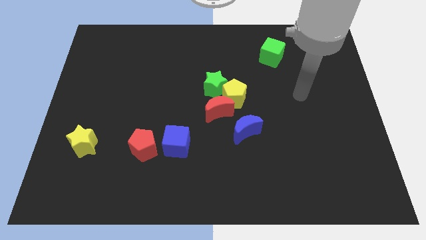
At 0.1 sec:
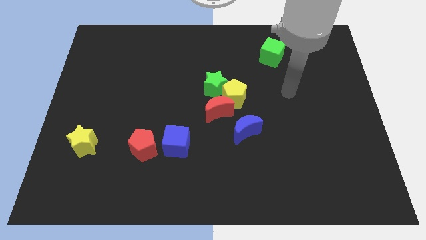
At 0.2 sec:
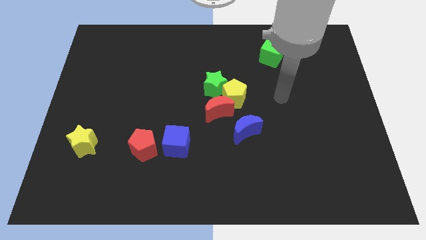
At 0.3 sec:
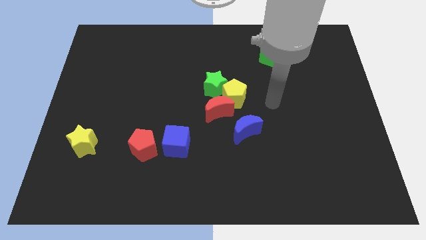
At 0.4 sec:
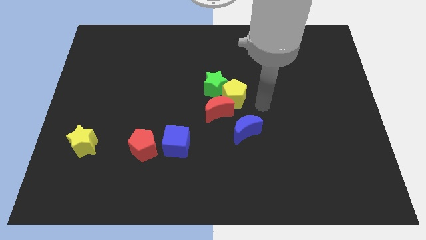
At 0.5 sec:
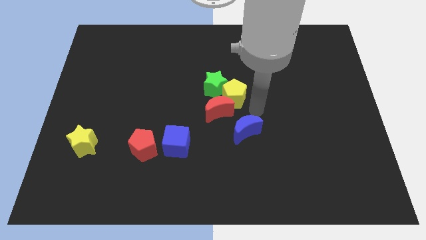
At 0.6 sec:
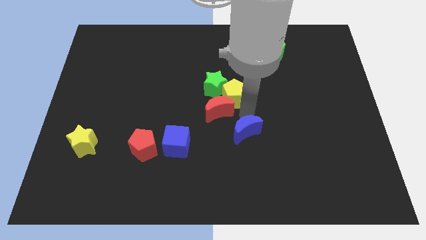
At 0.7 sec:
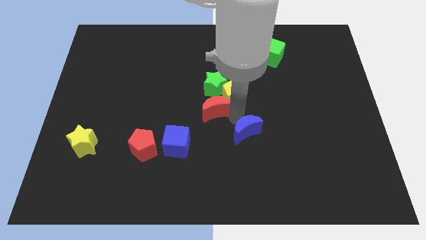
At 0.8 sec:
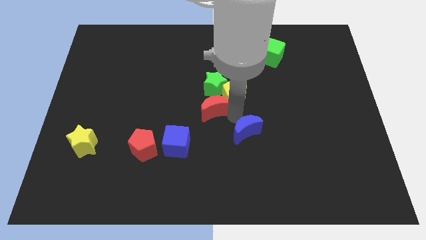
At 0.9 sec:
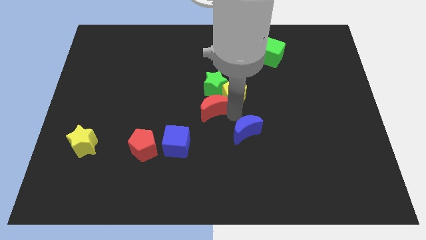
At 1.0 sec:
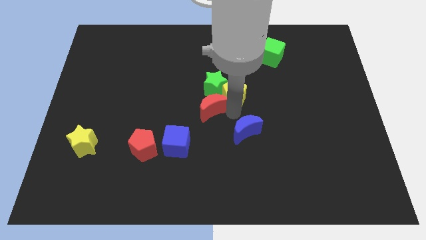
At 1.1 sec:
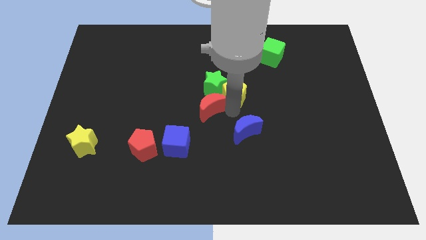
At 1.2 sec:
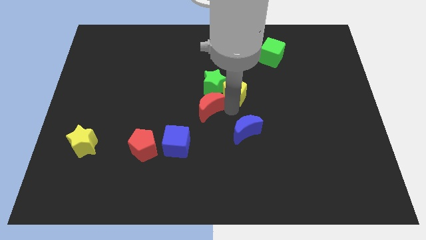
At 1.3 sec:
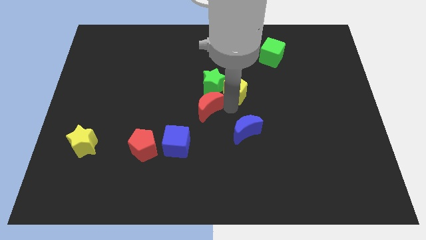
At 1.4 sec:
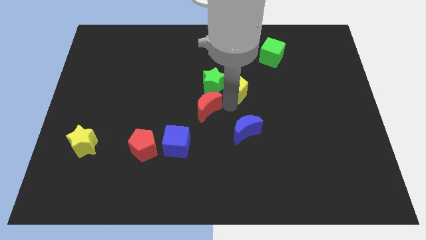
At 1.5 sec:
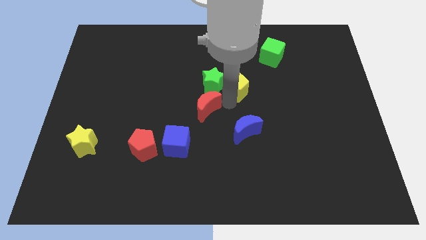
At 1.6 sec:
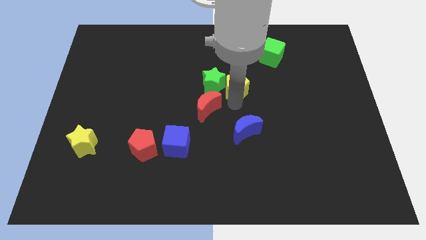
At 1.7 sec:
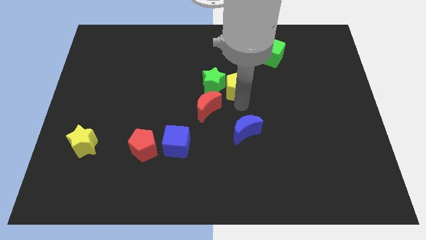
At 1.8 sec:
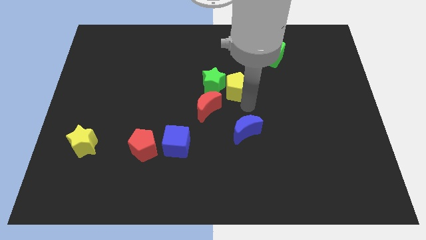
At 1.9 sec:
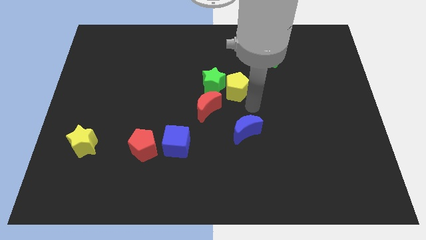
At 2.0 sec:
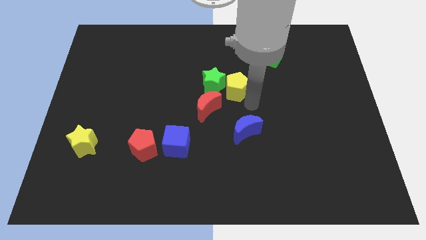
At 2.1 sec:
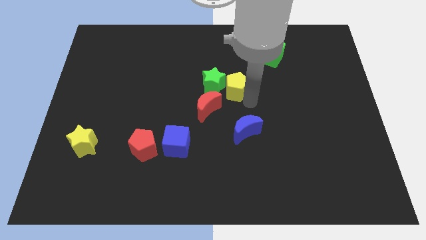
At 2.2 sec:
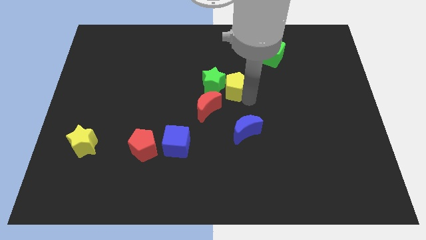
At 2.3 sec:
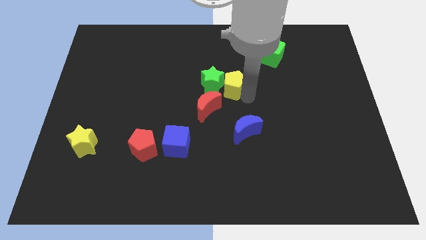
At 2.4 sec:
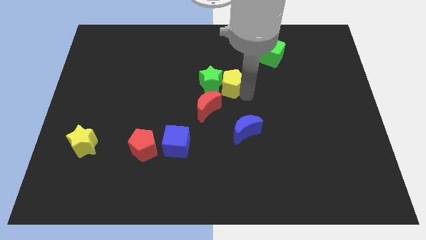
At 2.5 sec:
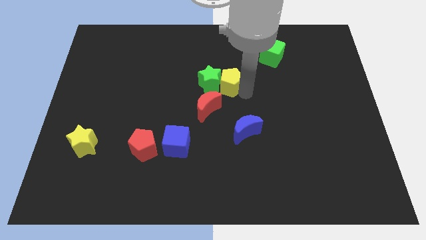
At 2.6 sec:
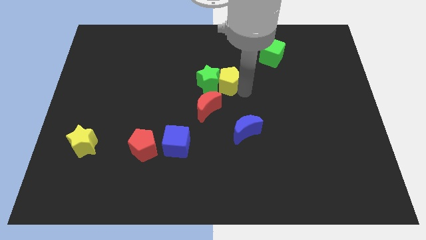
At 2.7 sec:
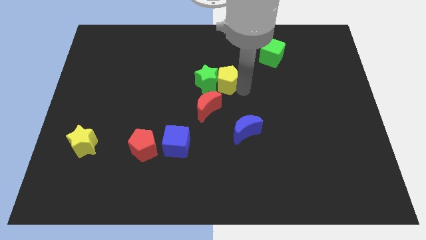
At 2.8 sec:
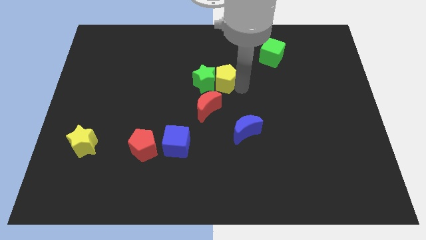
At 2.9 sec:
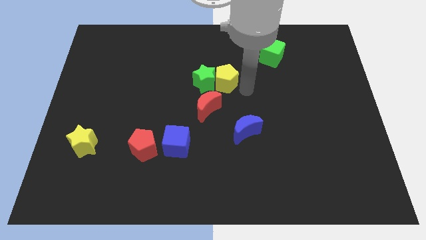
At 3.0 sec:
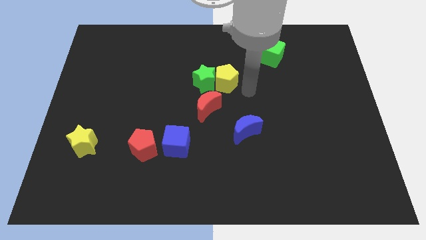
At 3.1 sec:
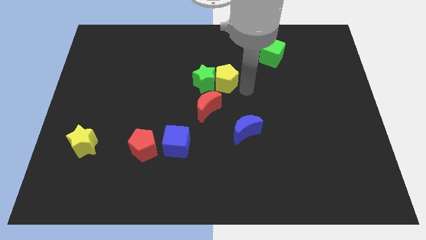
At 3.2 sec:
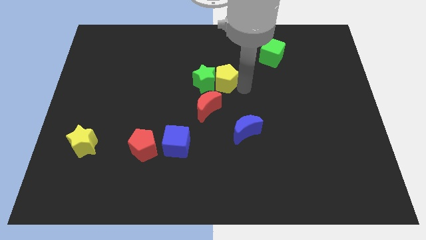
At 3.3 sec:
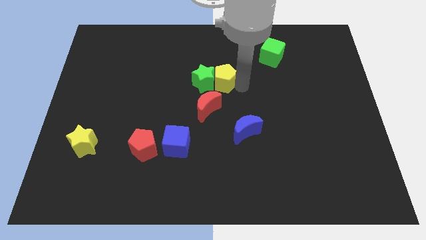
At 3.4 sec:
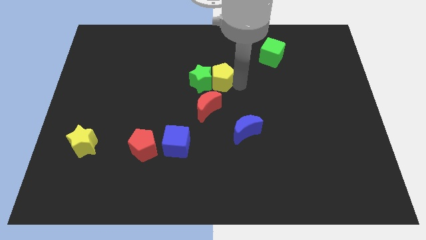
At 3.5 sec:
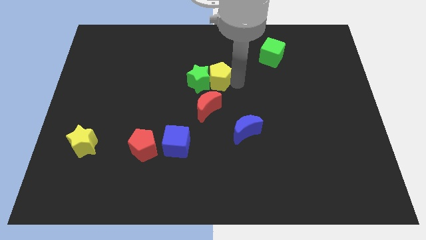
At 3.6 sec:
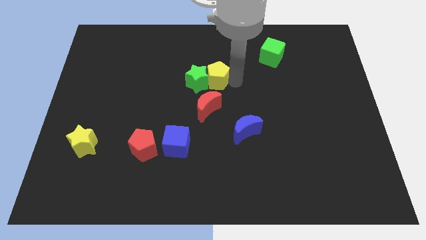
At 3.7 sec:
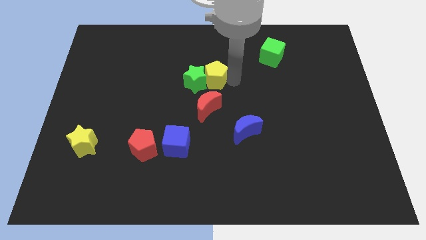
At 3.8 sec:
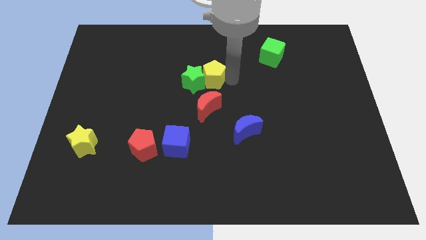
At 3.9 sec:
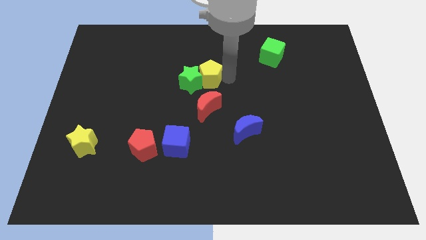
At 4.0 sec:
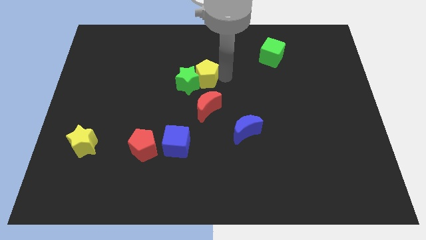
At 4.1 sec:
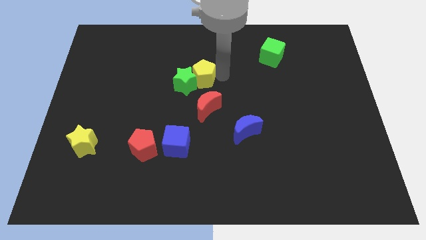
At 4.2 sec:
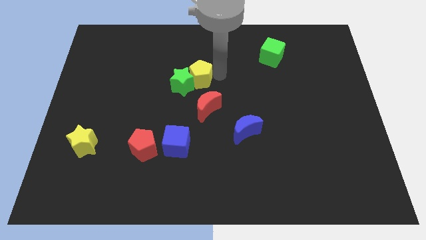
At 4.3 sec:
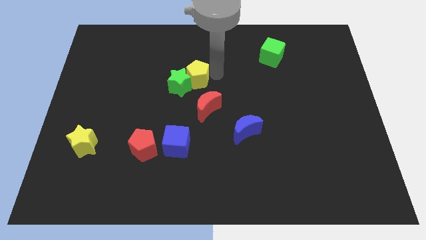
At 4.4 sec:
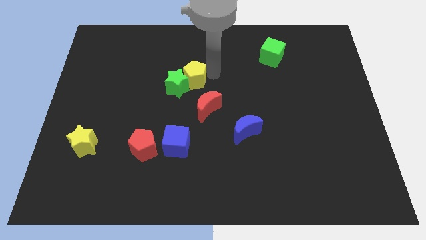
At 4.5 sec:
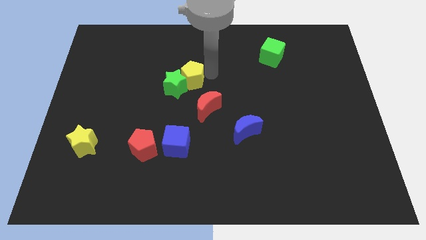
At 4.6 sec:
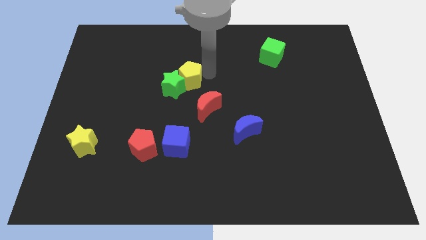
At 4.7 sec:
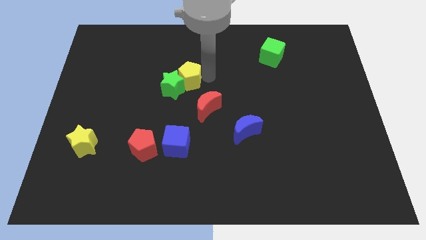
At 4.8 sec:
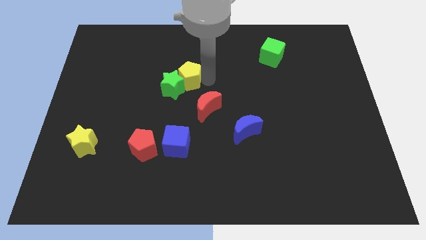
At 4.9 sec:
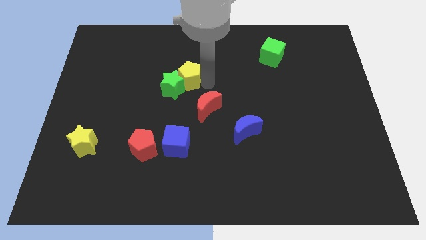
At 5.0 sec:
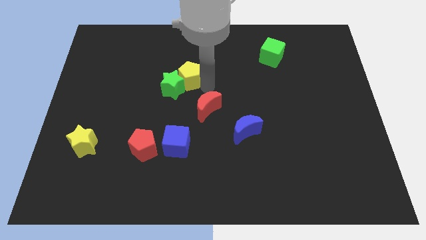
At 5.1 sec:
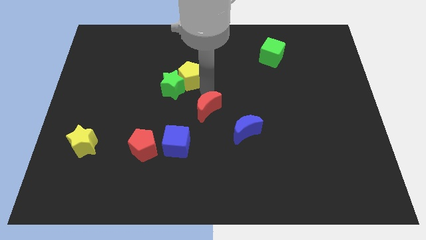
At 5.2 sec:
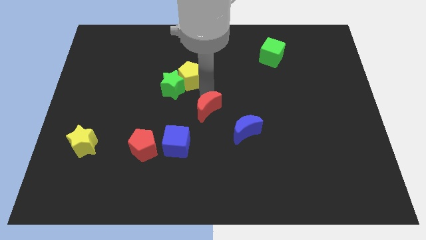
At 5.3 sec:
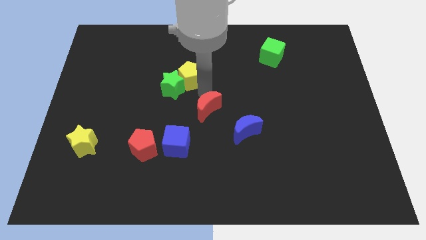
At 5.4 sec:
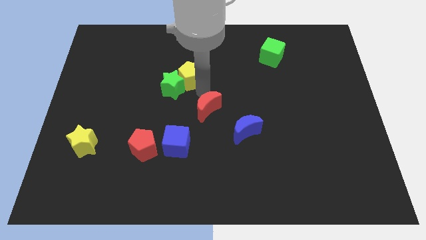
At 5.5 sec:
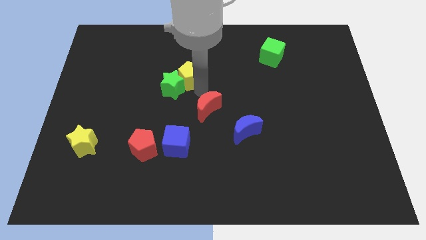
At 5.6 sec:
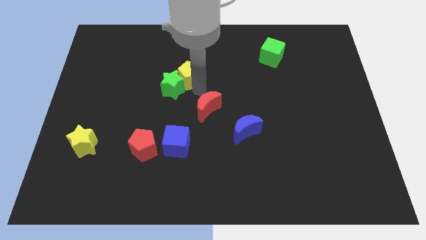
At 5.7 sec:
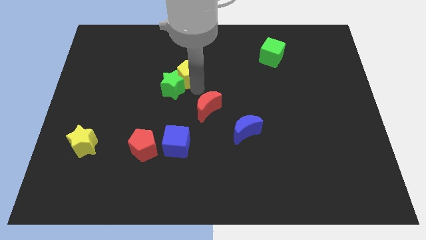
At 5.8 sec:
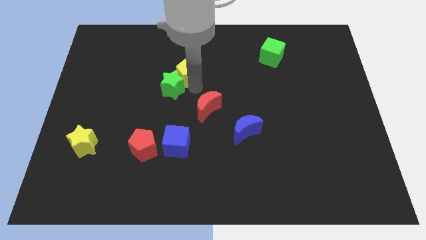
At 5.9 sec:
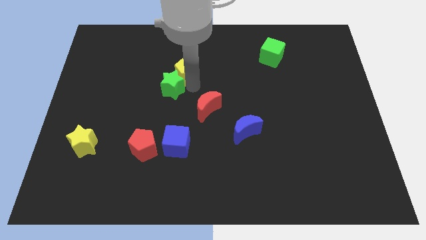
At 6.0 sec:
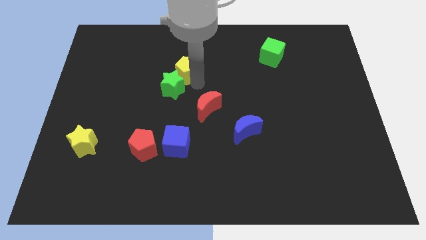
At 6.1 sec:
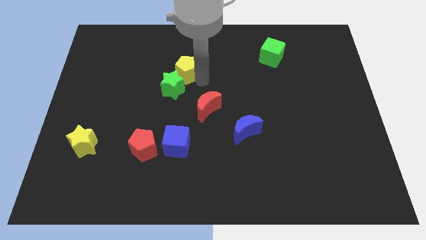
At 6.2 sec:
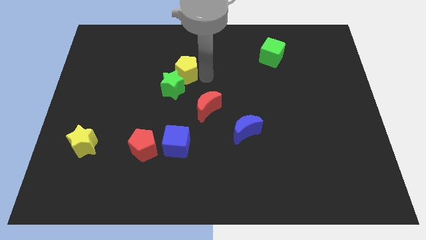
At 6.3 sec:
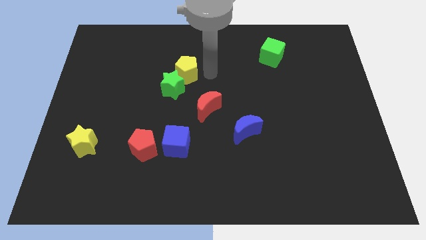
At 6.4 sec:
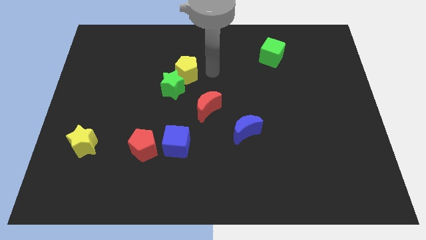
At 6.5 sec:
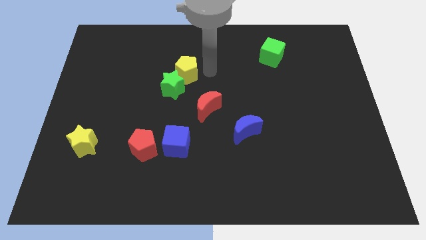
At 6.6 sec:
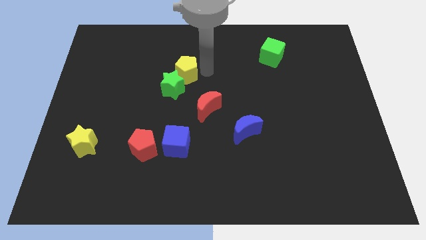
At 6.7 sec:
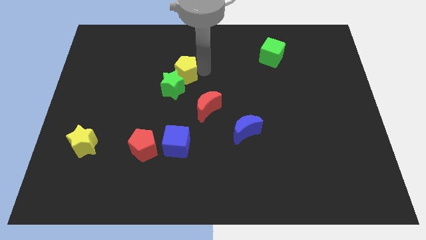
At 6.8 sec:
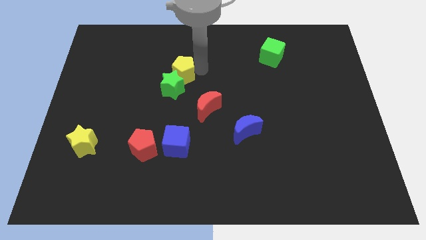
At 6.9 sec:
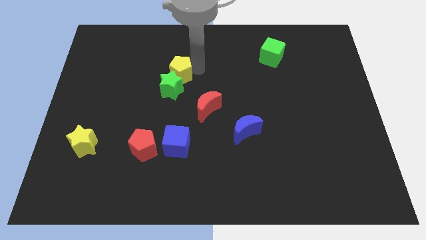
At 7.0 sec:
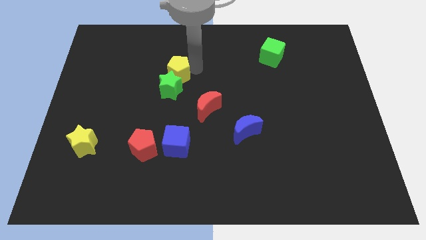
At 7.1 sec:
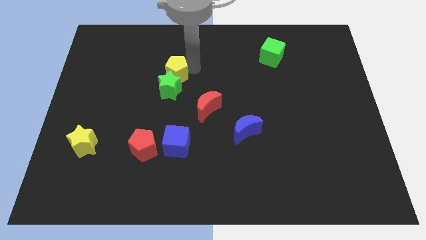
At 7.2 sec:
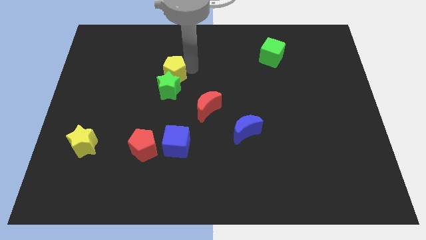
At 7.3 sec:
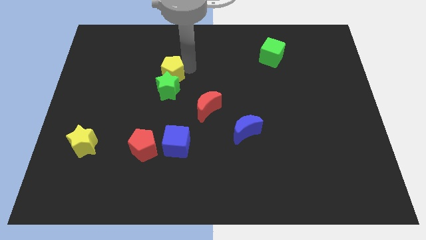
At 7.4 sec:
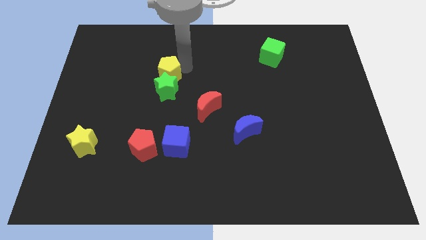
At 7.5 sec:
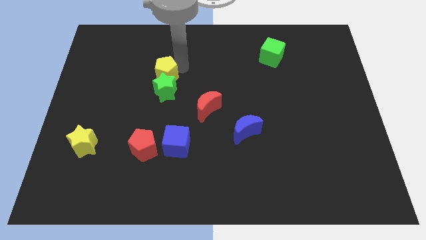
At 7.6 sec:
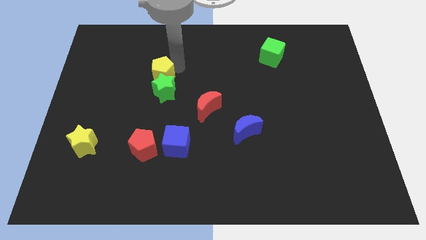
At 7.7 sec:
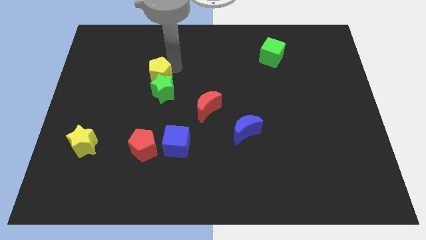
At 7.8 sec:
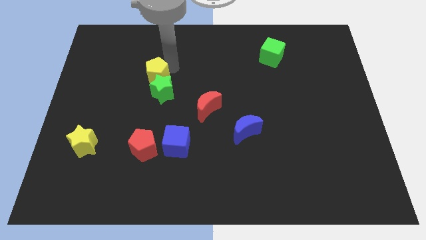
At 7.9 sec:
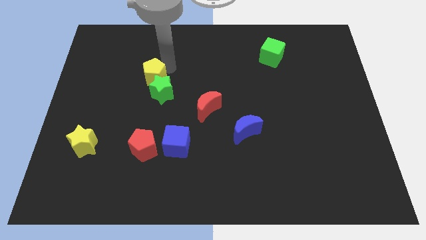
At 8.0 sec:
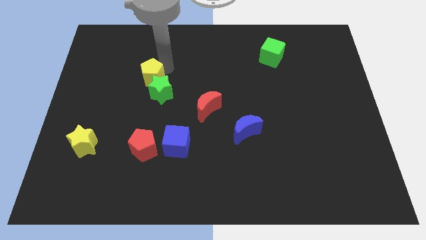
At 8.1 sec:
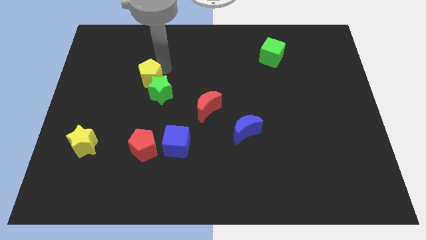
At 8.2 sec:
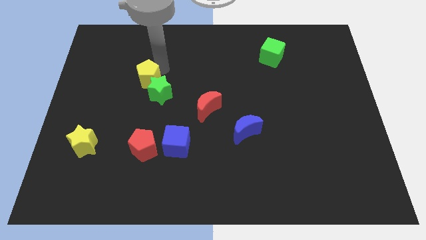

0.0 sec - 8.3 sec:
slide the yellow pentagon left
